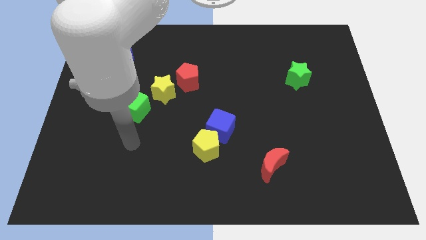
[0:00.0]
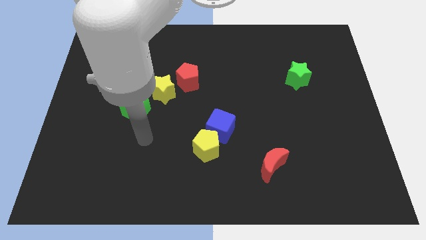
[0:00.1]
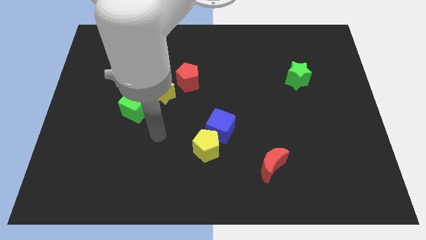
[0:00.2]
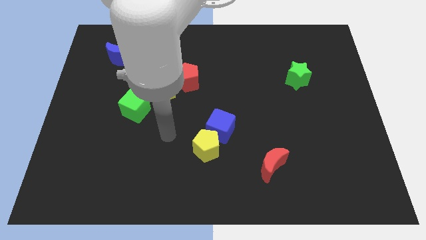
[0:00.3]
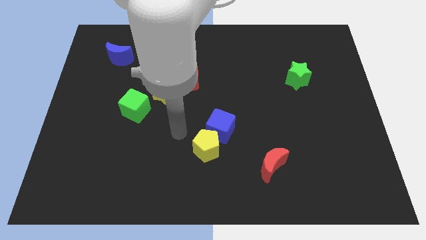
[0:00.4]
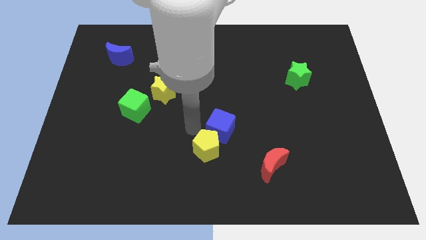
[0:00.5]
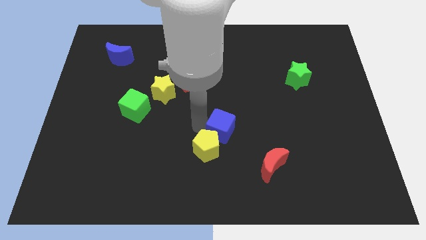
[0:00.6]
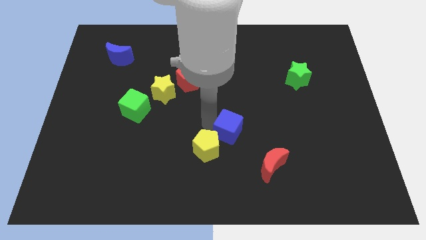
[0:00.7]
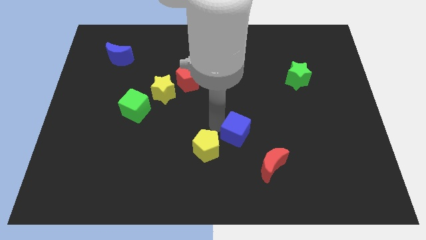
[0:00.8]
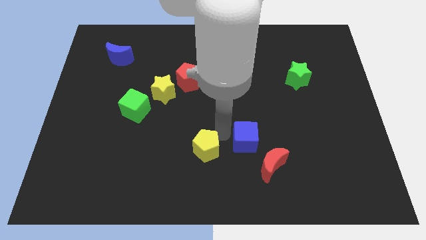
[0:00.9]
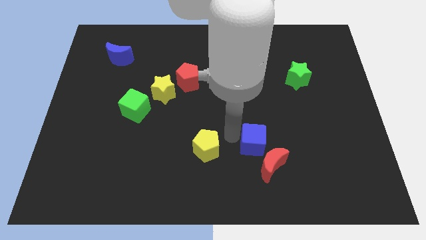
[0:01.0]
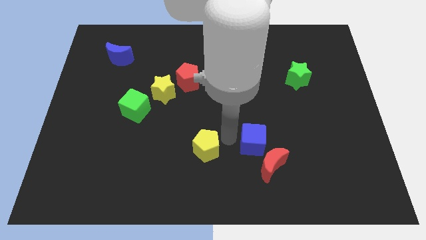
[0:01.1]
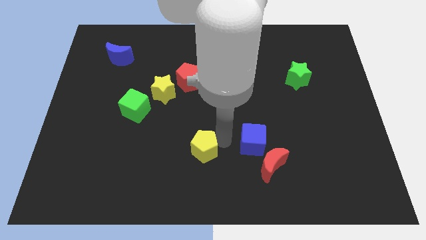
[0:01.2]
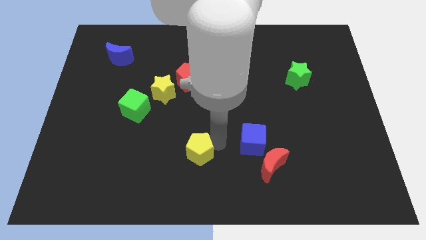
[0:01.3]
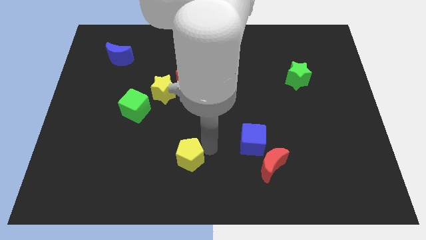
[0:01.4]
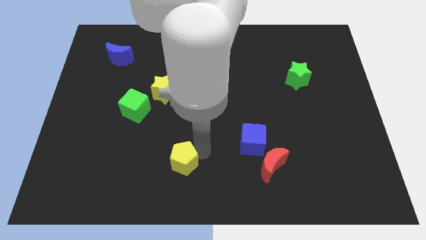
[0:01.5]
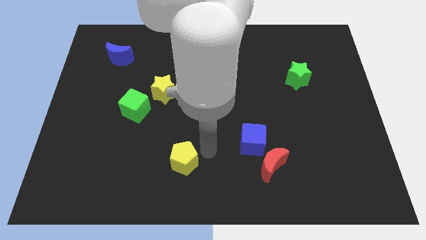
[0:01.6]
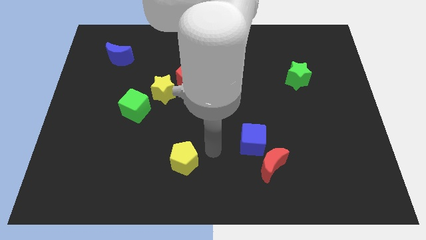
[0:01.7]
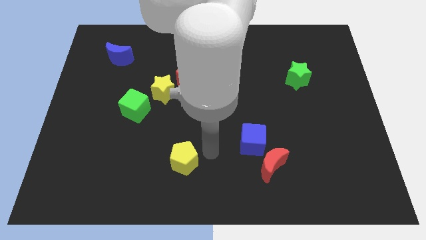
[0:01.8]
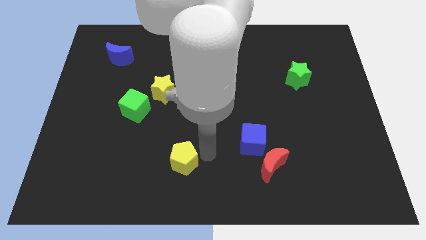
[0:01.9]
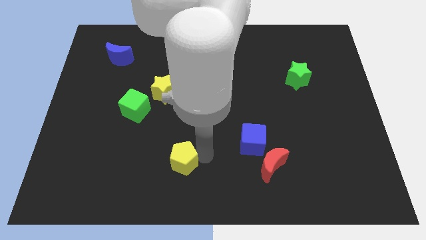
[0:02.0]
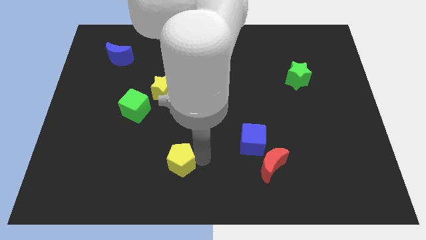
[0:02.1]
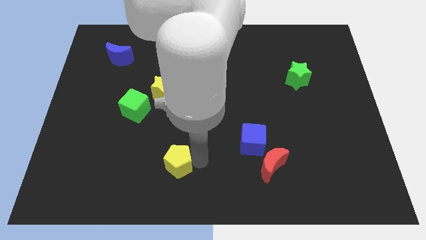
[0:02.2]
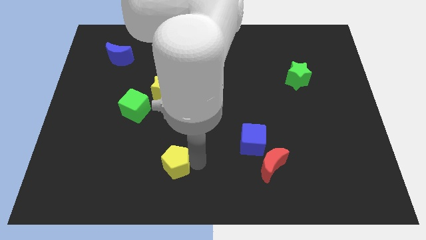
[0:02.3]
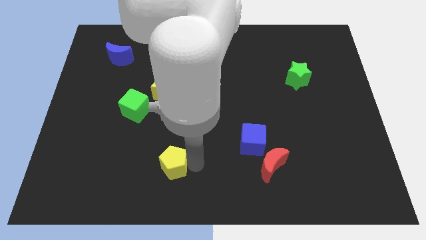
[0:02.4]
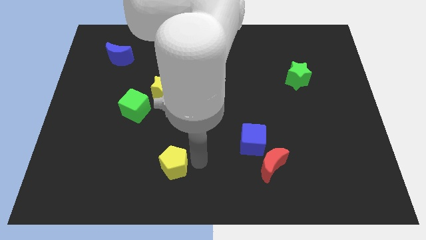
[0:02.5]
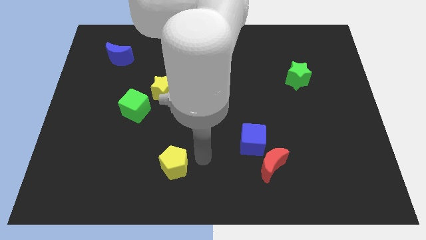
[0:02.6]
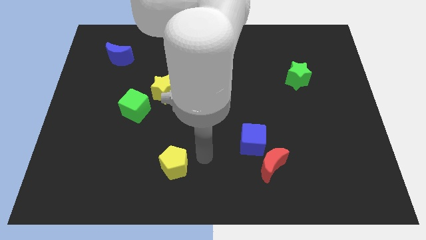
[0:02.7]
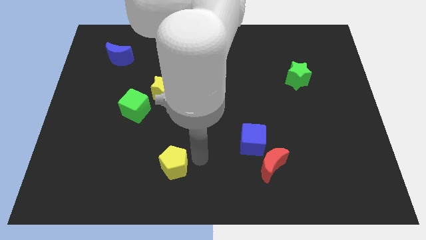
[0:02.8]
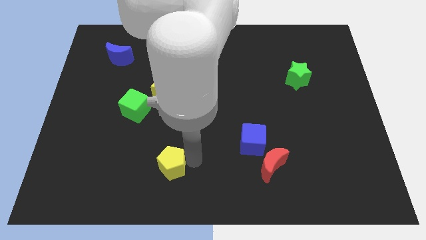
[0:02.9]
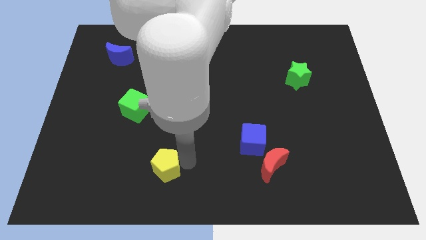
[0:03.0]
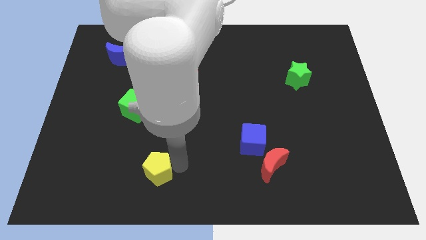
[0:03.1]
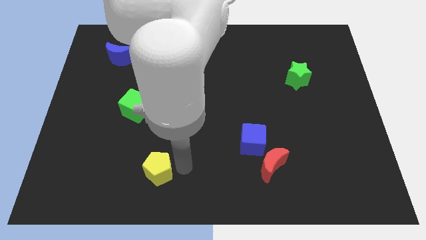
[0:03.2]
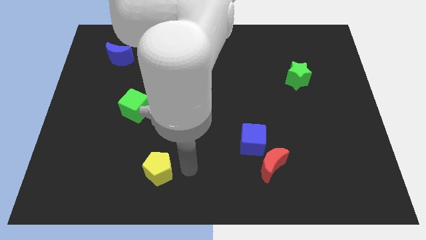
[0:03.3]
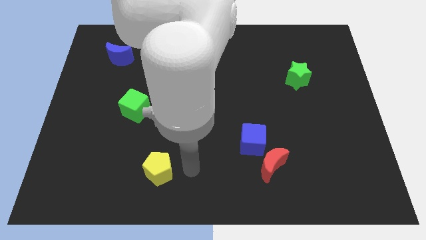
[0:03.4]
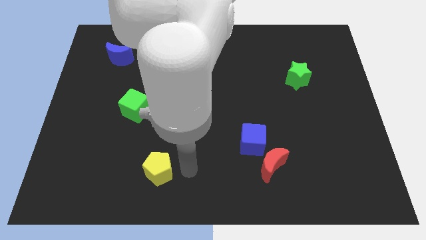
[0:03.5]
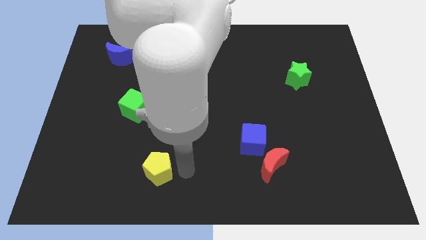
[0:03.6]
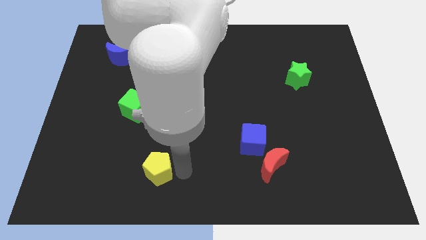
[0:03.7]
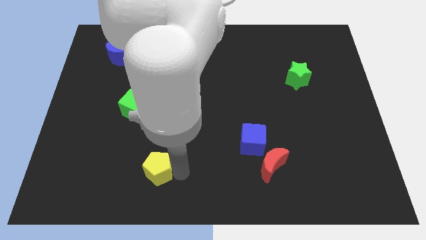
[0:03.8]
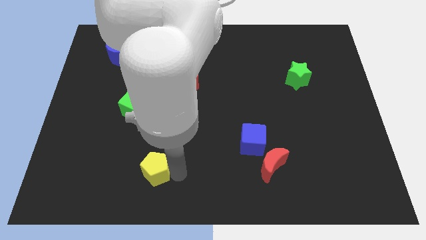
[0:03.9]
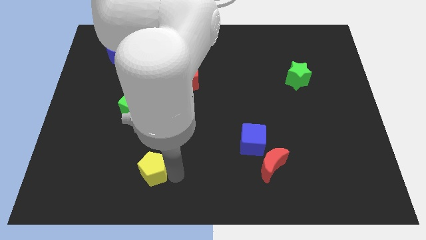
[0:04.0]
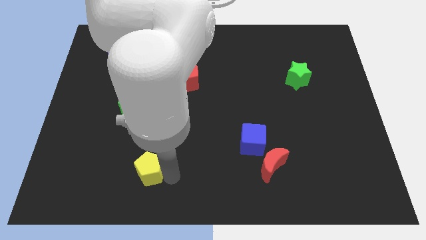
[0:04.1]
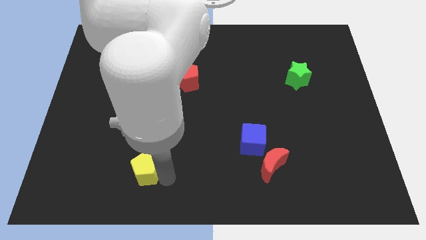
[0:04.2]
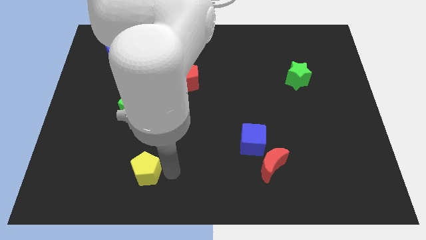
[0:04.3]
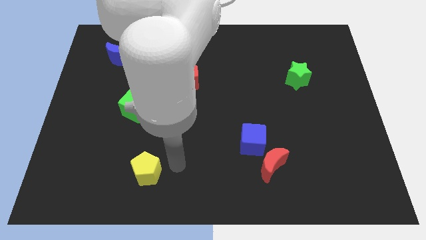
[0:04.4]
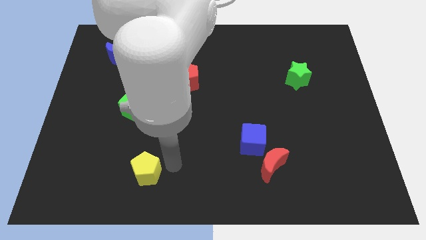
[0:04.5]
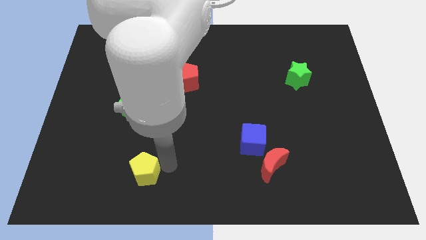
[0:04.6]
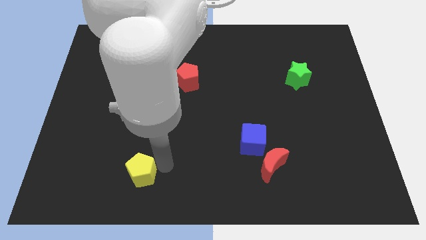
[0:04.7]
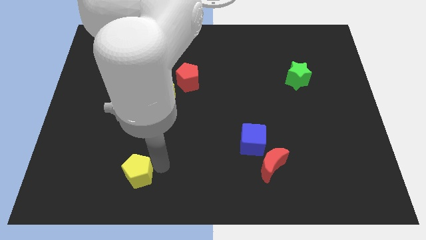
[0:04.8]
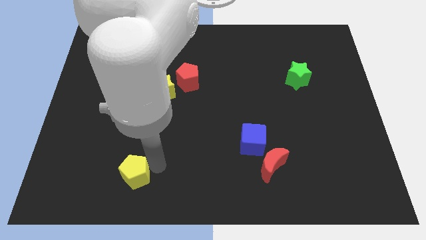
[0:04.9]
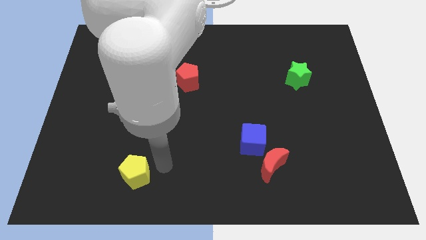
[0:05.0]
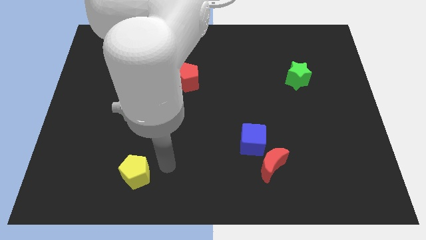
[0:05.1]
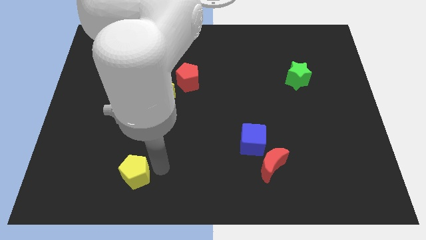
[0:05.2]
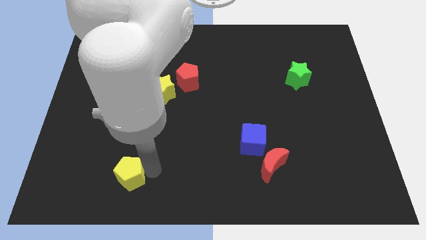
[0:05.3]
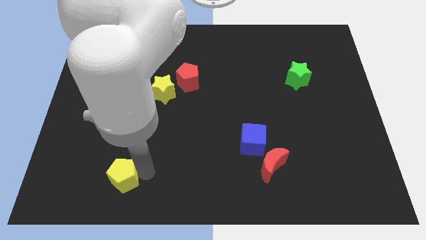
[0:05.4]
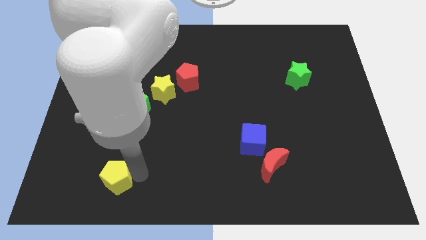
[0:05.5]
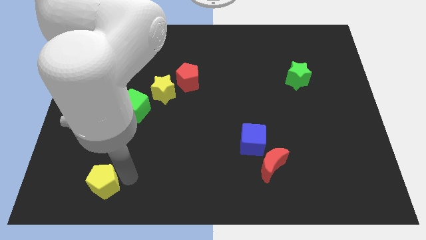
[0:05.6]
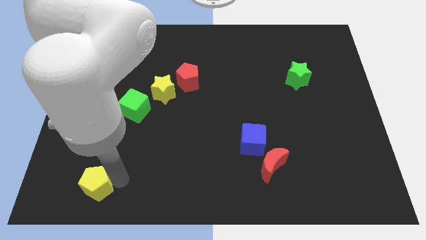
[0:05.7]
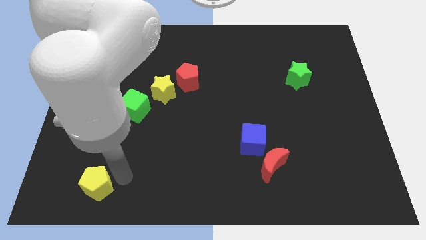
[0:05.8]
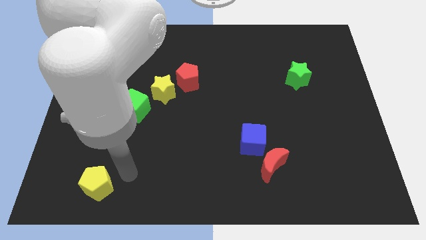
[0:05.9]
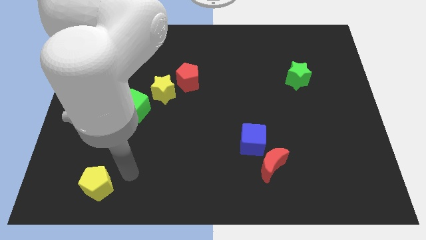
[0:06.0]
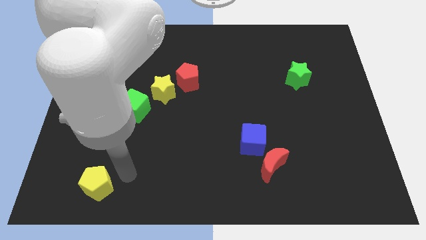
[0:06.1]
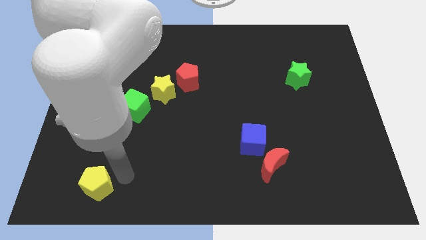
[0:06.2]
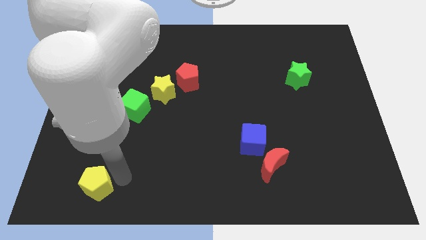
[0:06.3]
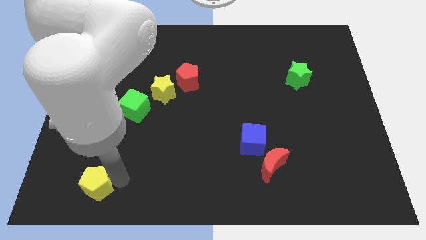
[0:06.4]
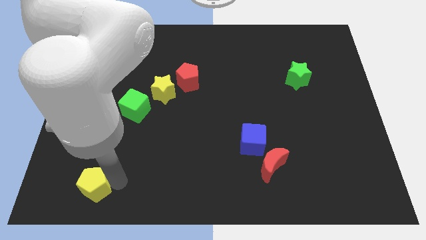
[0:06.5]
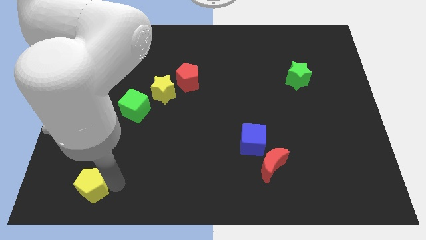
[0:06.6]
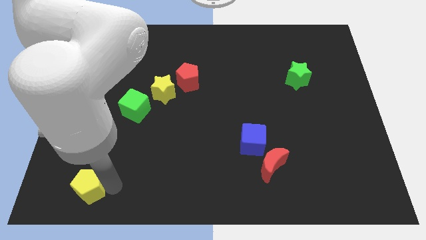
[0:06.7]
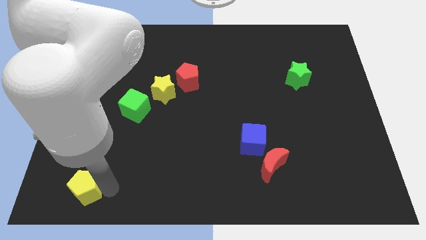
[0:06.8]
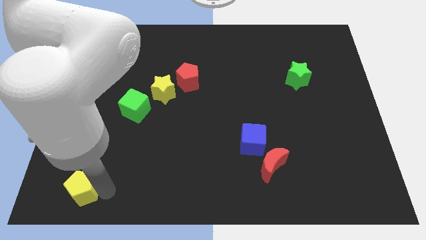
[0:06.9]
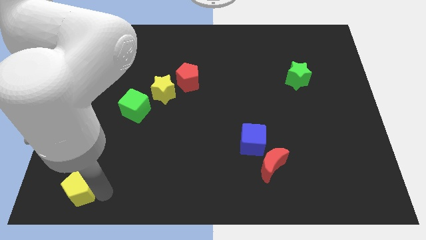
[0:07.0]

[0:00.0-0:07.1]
push the yellow pentagon to the lower left corner
